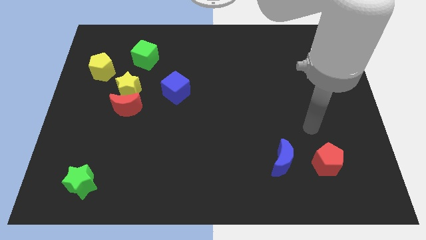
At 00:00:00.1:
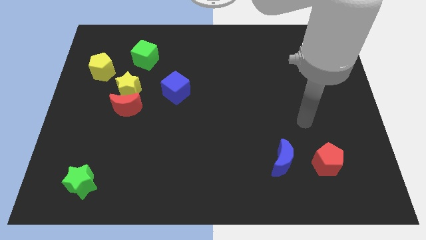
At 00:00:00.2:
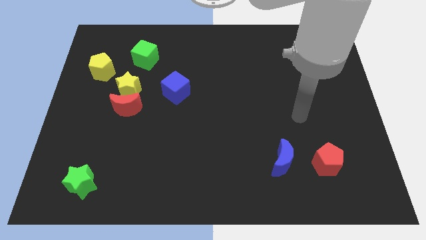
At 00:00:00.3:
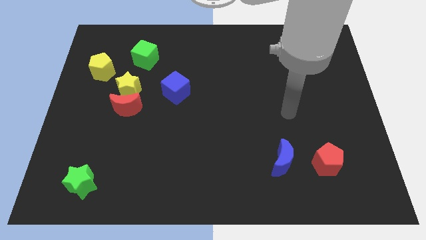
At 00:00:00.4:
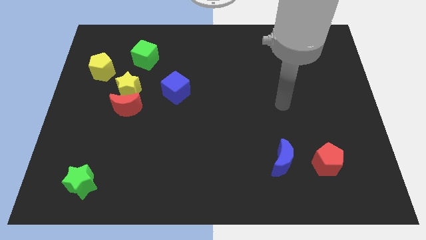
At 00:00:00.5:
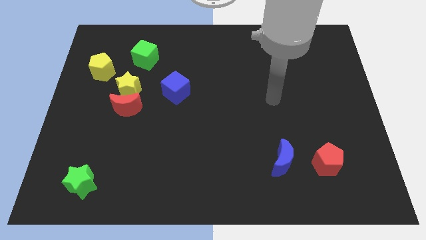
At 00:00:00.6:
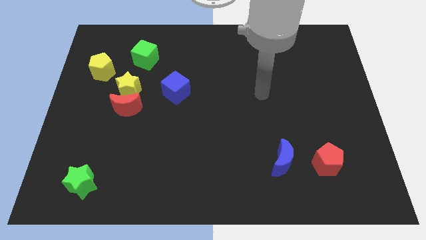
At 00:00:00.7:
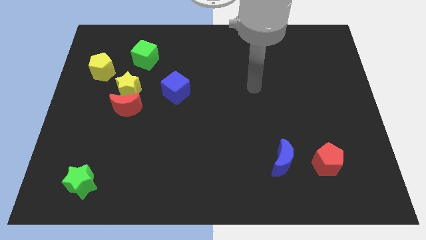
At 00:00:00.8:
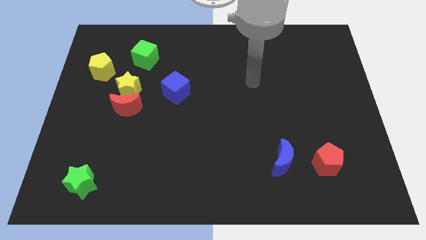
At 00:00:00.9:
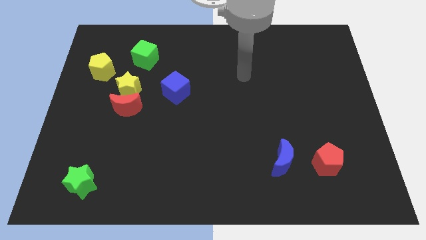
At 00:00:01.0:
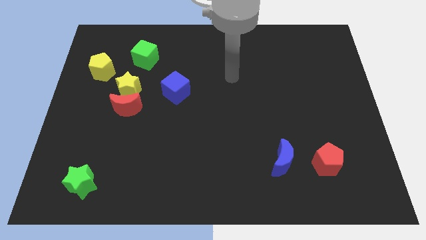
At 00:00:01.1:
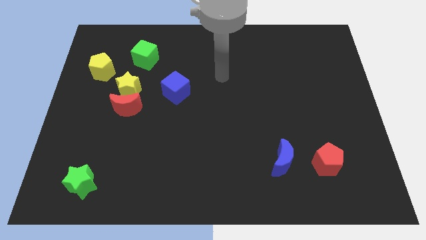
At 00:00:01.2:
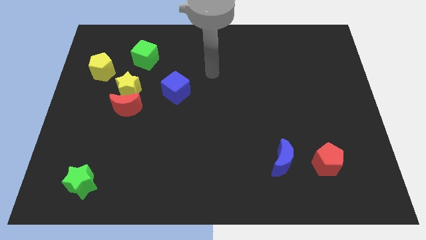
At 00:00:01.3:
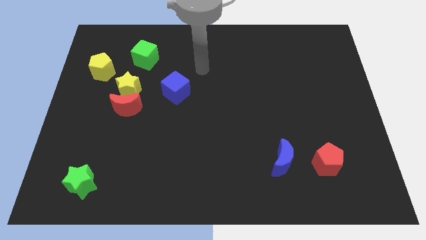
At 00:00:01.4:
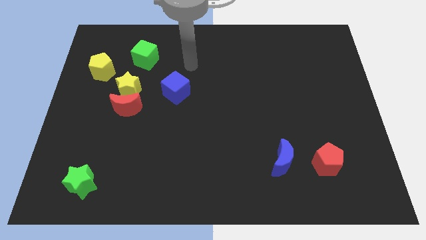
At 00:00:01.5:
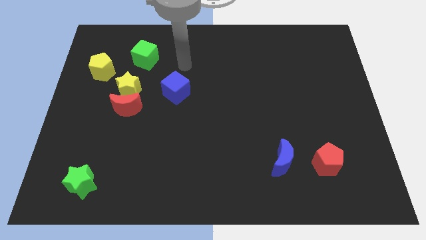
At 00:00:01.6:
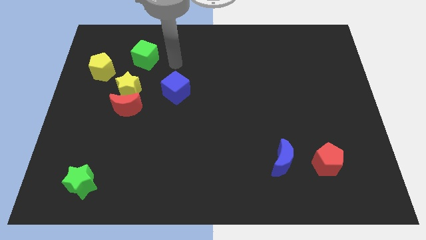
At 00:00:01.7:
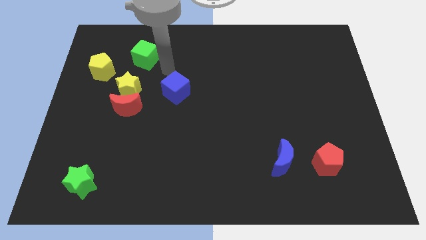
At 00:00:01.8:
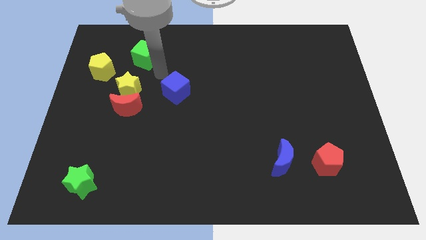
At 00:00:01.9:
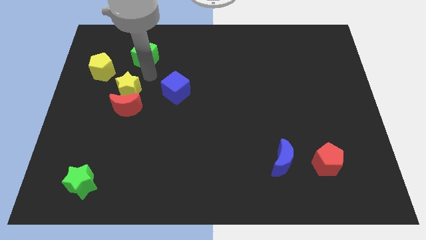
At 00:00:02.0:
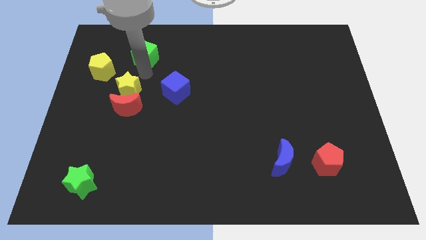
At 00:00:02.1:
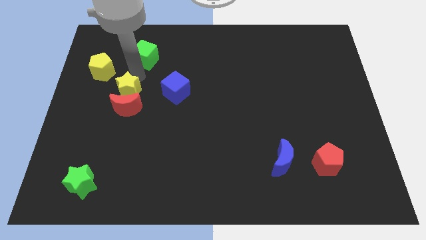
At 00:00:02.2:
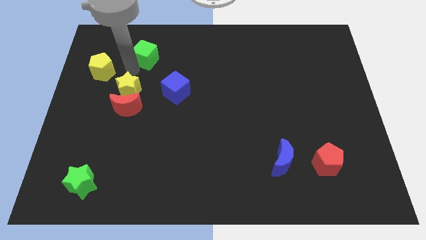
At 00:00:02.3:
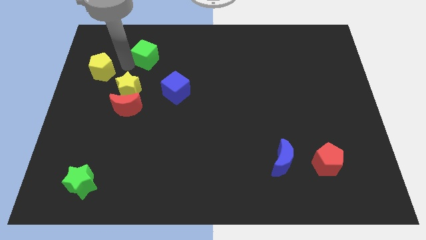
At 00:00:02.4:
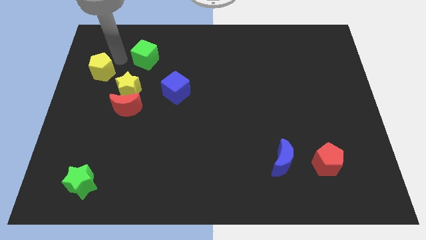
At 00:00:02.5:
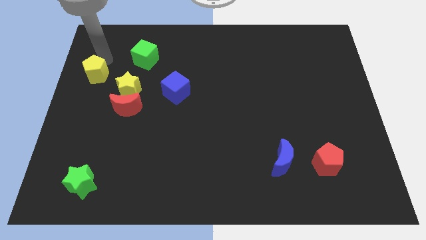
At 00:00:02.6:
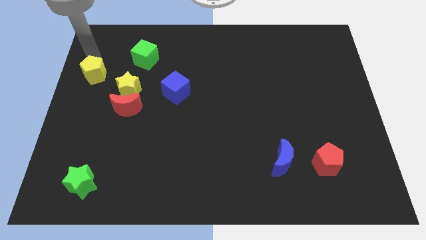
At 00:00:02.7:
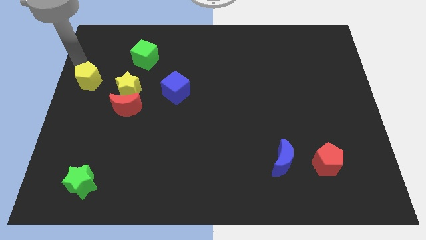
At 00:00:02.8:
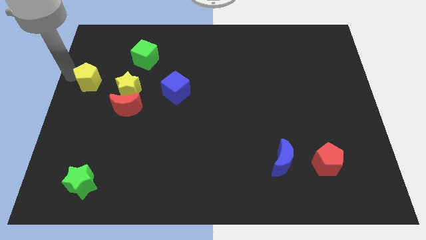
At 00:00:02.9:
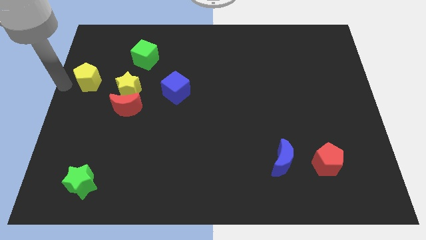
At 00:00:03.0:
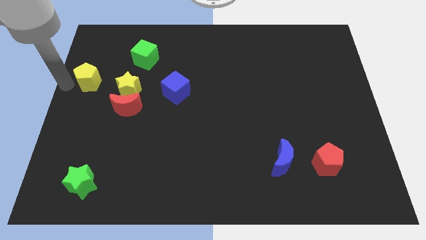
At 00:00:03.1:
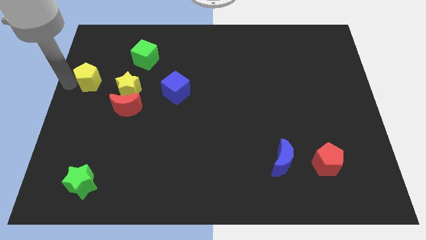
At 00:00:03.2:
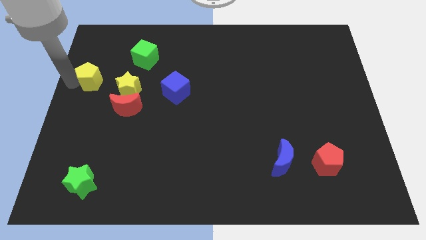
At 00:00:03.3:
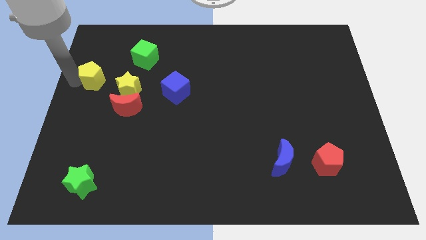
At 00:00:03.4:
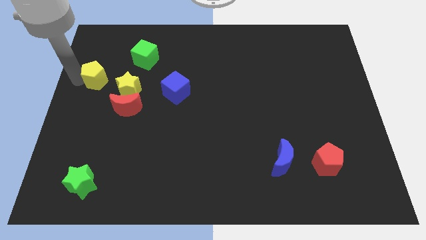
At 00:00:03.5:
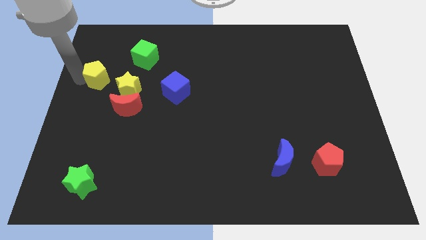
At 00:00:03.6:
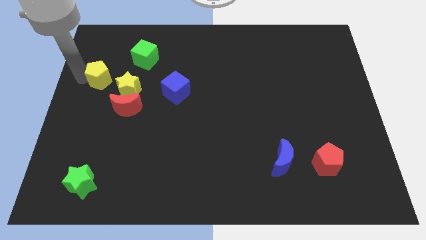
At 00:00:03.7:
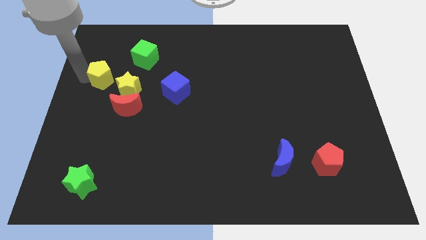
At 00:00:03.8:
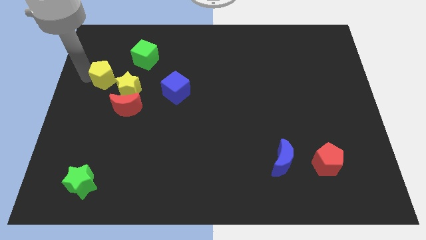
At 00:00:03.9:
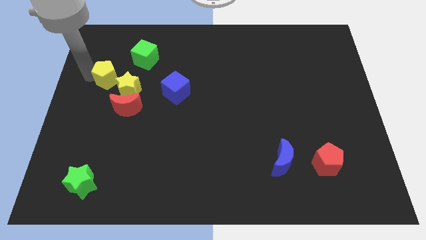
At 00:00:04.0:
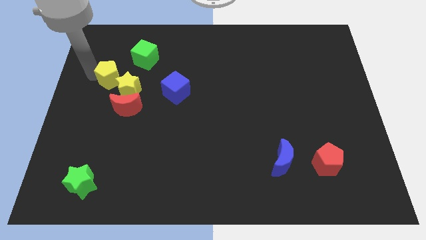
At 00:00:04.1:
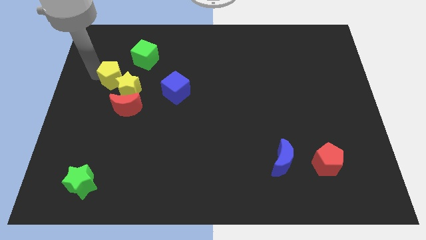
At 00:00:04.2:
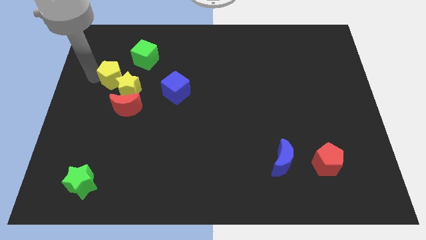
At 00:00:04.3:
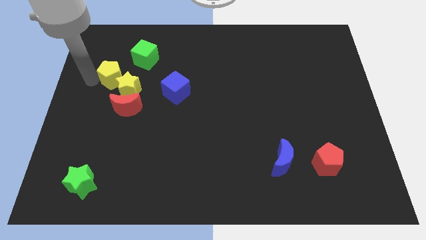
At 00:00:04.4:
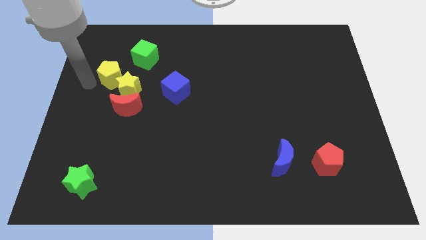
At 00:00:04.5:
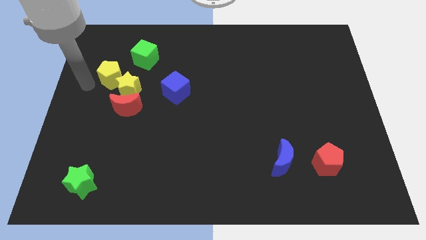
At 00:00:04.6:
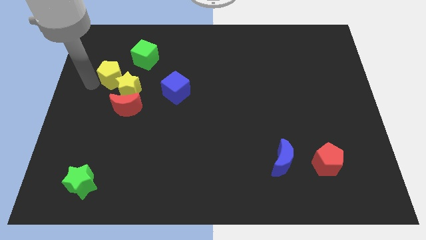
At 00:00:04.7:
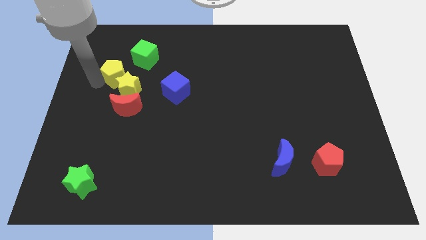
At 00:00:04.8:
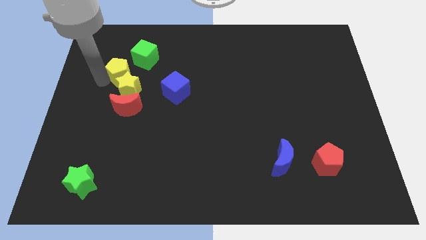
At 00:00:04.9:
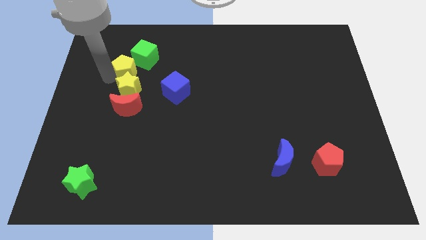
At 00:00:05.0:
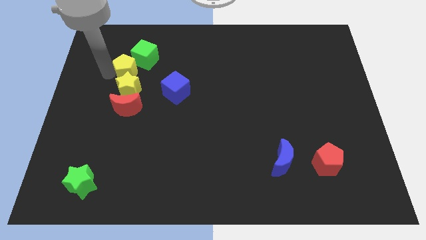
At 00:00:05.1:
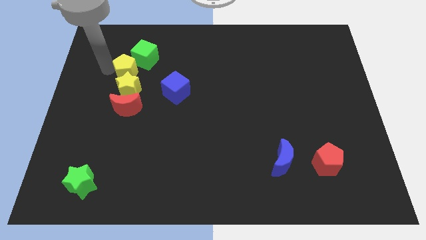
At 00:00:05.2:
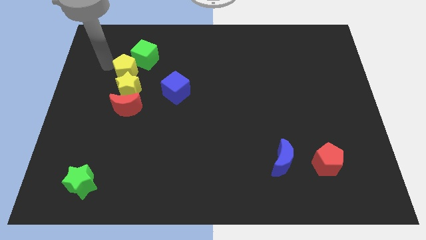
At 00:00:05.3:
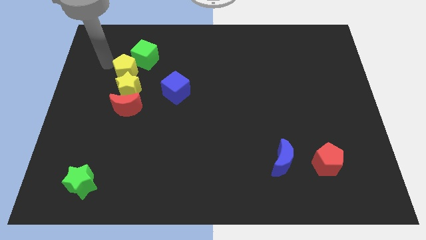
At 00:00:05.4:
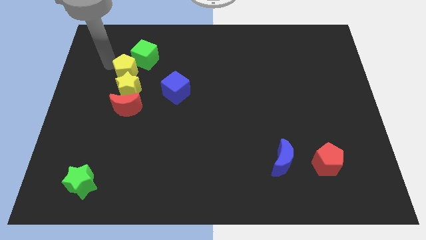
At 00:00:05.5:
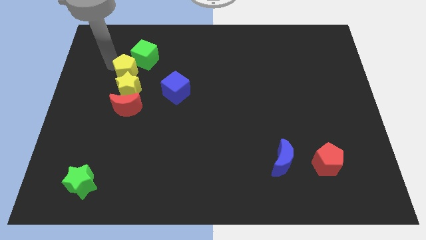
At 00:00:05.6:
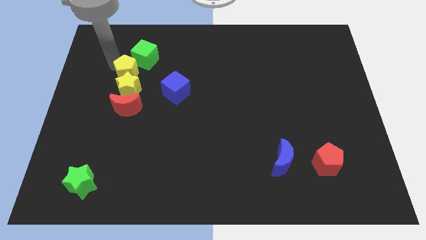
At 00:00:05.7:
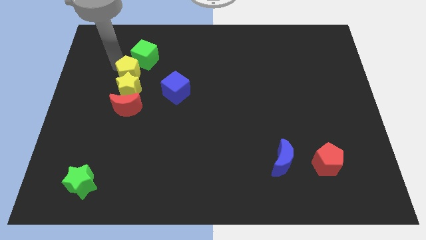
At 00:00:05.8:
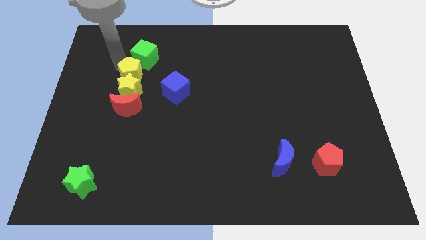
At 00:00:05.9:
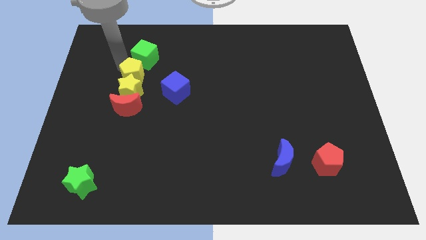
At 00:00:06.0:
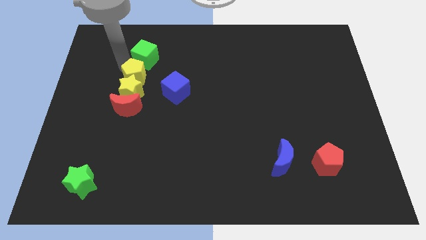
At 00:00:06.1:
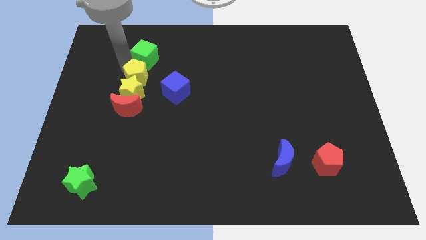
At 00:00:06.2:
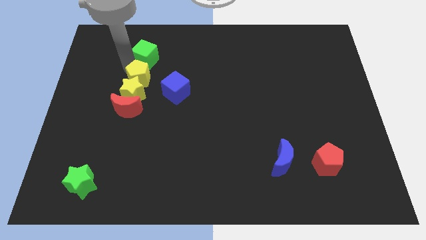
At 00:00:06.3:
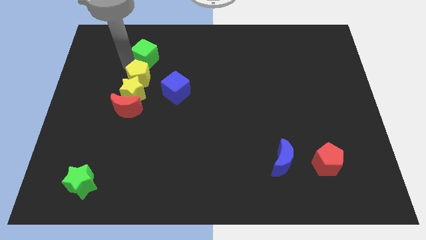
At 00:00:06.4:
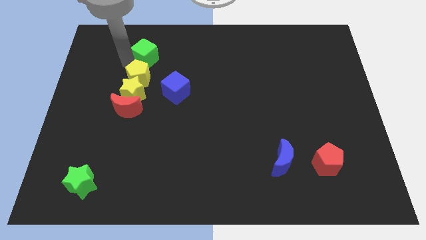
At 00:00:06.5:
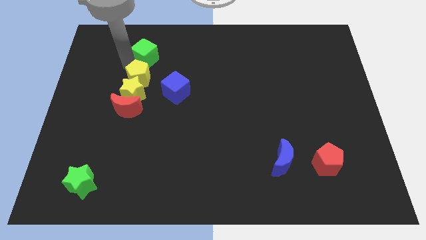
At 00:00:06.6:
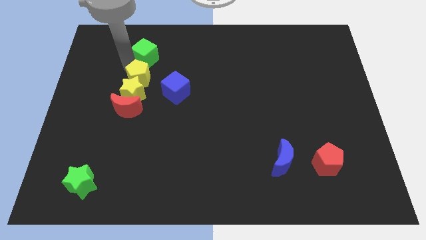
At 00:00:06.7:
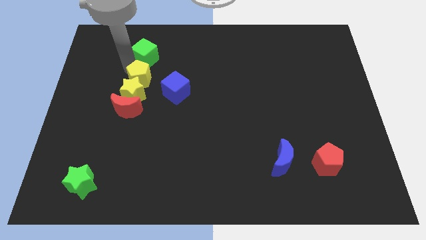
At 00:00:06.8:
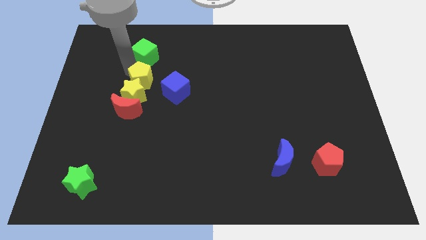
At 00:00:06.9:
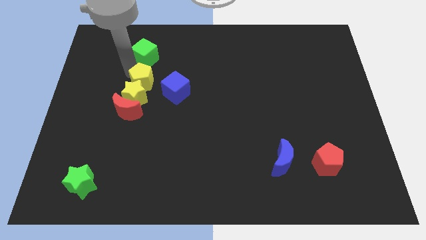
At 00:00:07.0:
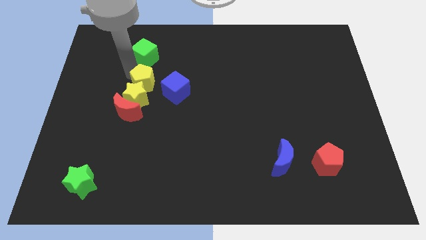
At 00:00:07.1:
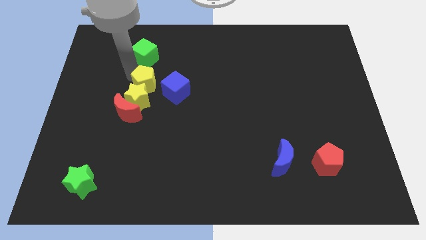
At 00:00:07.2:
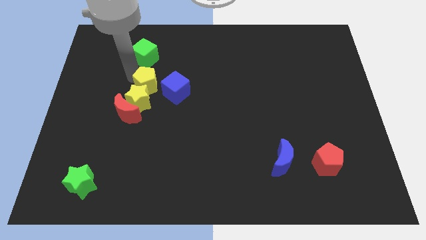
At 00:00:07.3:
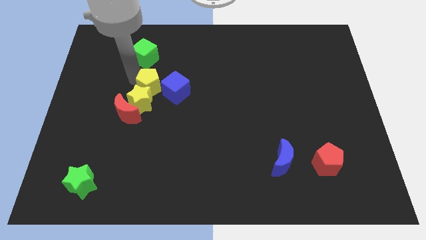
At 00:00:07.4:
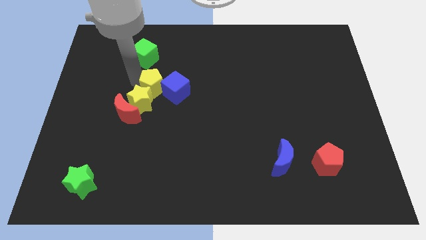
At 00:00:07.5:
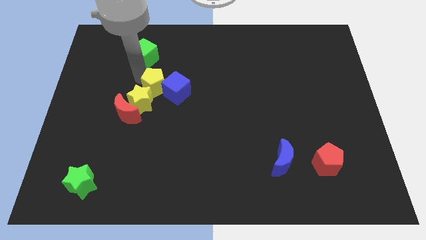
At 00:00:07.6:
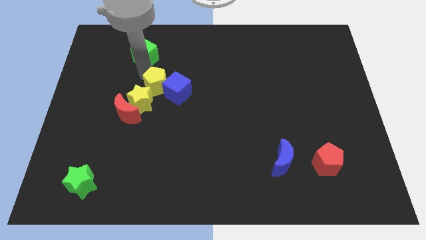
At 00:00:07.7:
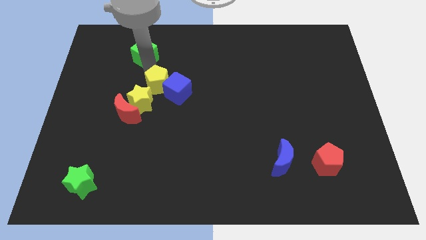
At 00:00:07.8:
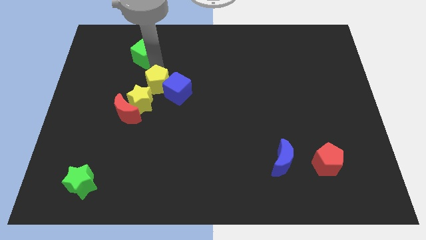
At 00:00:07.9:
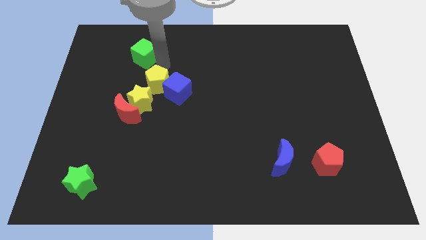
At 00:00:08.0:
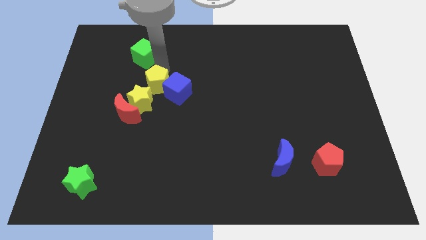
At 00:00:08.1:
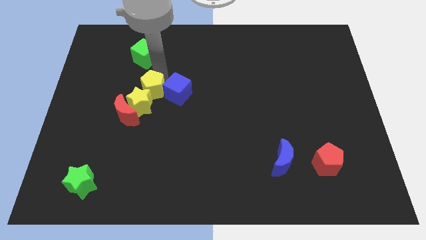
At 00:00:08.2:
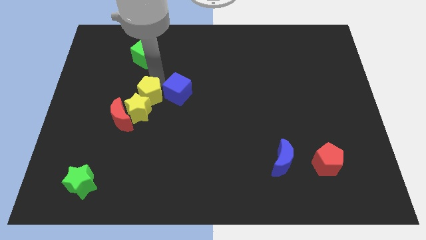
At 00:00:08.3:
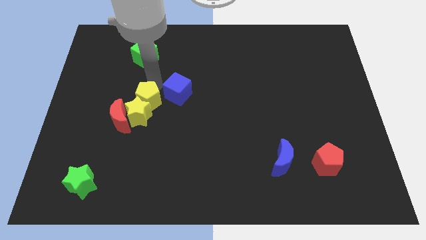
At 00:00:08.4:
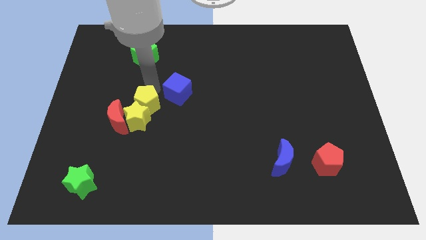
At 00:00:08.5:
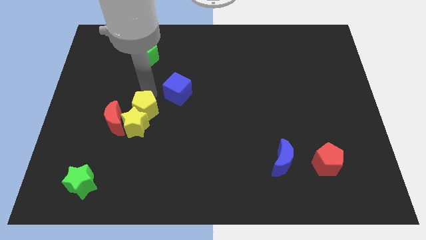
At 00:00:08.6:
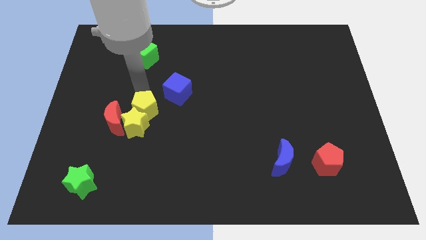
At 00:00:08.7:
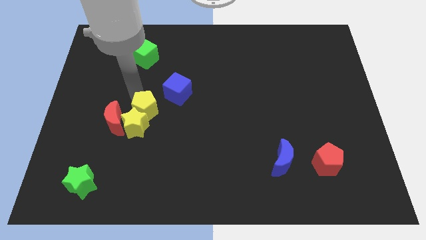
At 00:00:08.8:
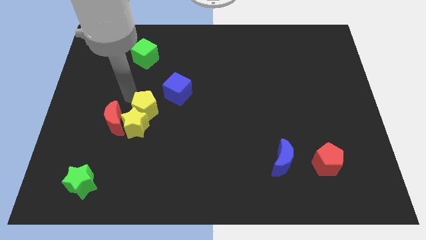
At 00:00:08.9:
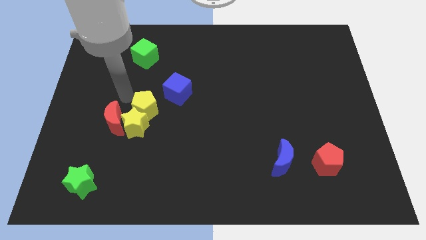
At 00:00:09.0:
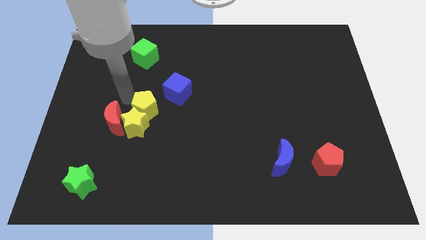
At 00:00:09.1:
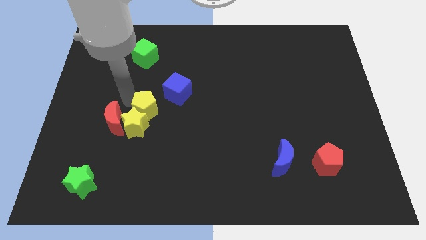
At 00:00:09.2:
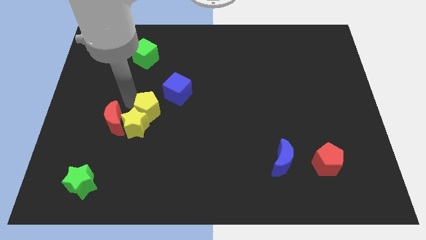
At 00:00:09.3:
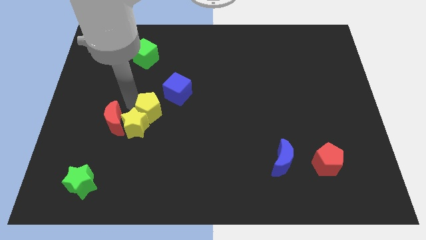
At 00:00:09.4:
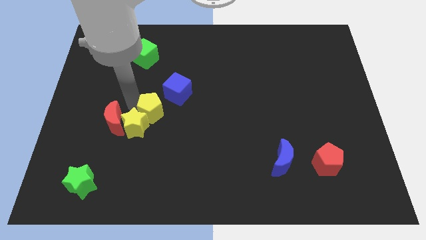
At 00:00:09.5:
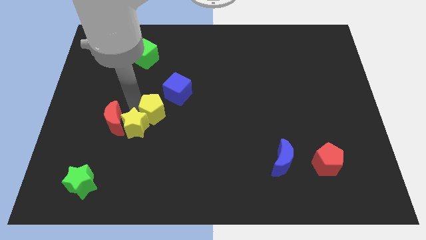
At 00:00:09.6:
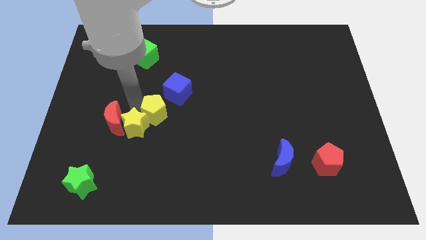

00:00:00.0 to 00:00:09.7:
move the yellow pentagon downwards and right diagonally
